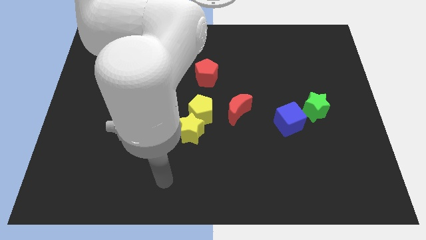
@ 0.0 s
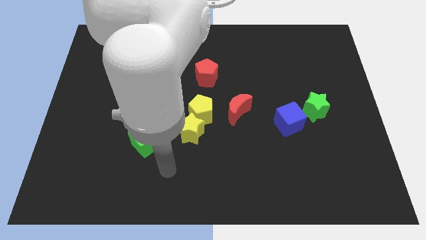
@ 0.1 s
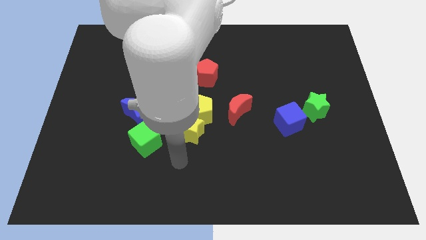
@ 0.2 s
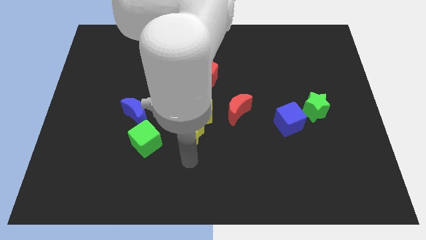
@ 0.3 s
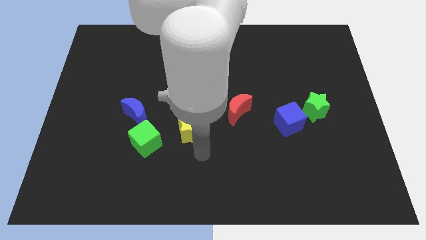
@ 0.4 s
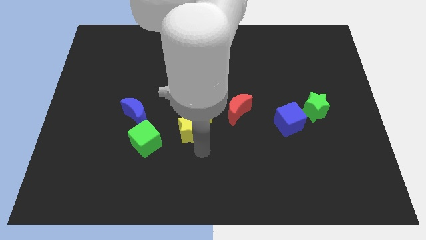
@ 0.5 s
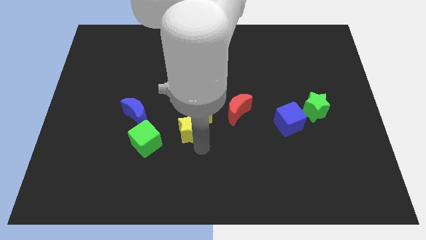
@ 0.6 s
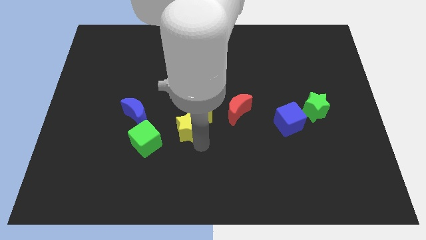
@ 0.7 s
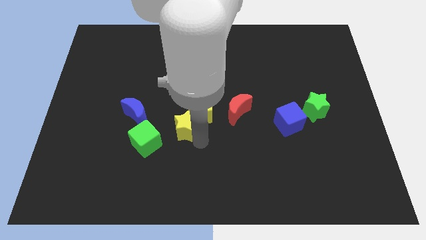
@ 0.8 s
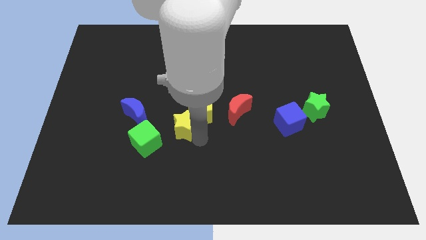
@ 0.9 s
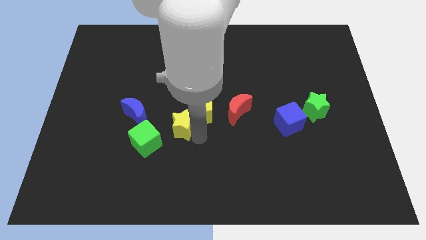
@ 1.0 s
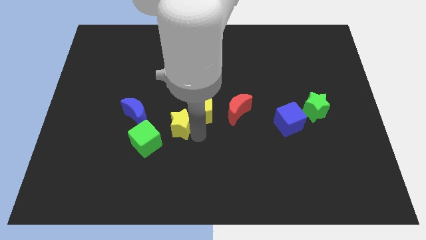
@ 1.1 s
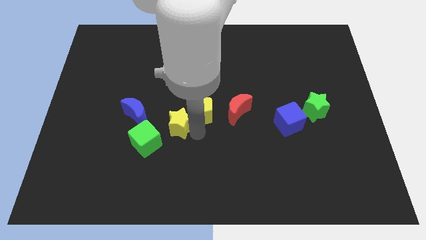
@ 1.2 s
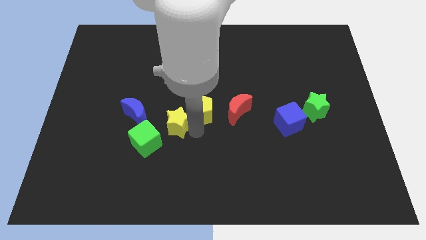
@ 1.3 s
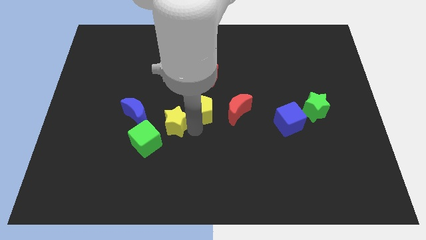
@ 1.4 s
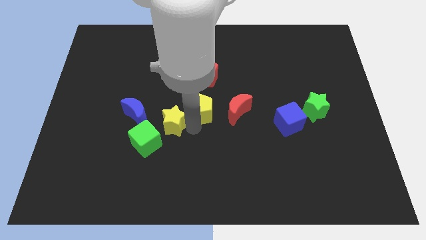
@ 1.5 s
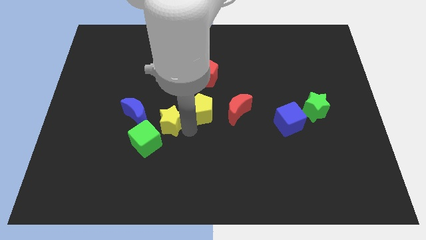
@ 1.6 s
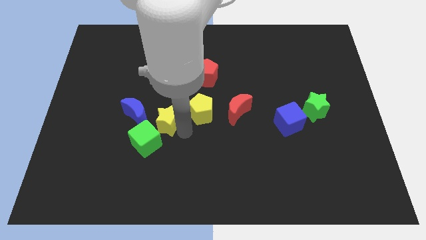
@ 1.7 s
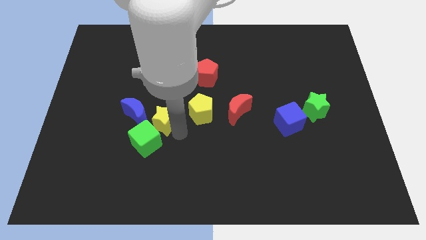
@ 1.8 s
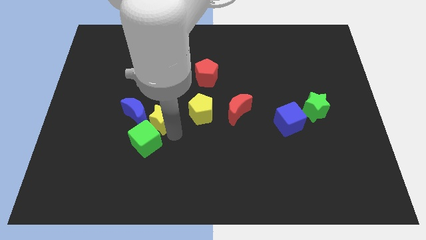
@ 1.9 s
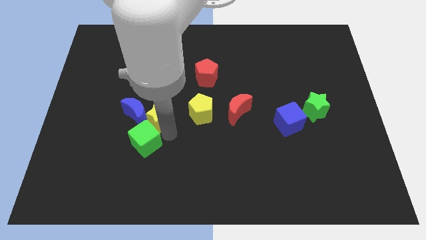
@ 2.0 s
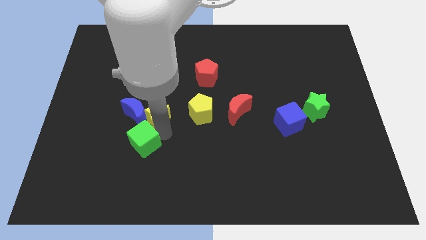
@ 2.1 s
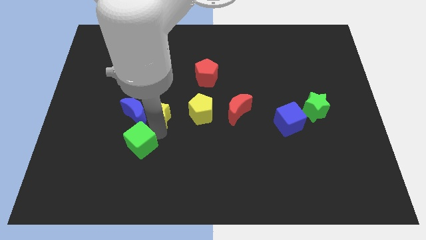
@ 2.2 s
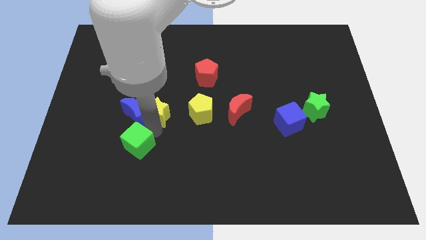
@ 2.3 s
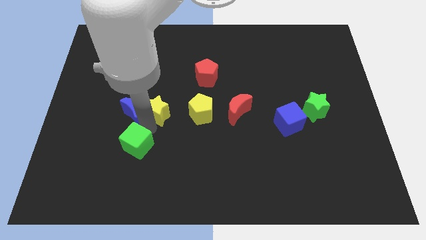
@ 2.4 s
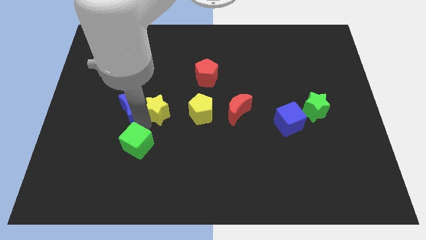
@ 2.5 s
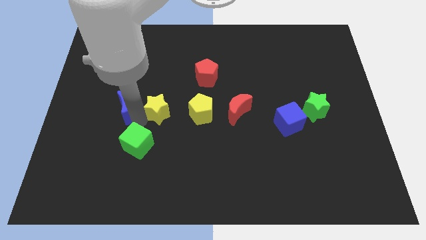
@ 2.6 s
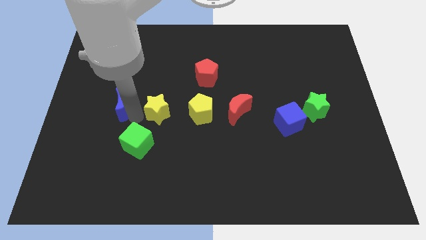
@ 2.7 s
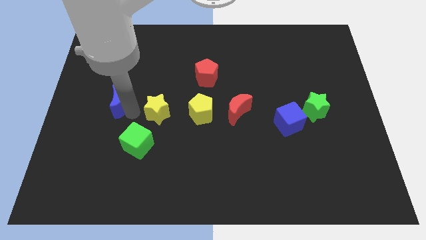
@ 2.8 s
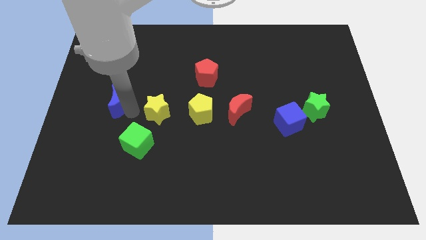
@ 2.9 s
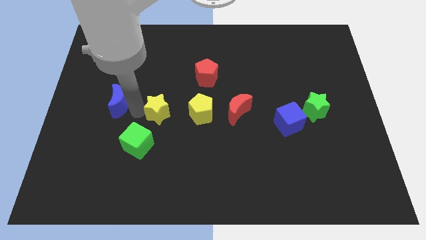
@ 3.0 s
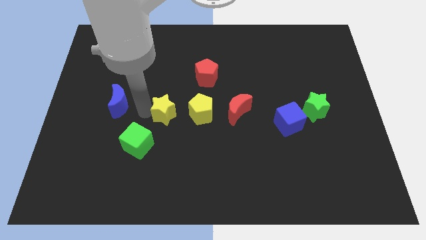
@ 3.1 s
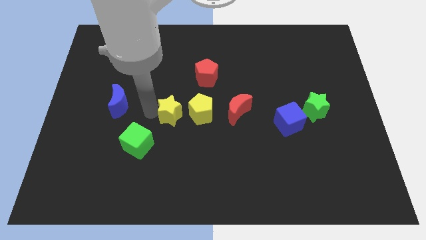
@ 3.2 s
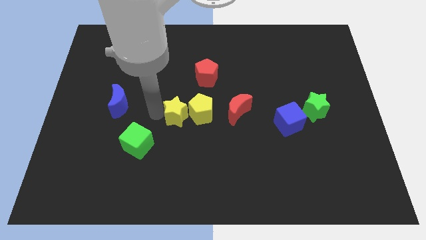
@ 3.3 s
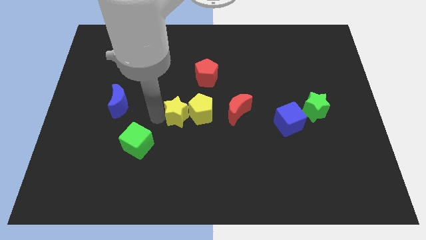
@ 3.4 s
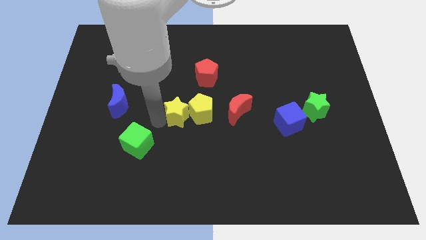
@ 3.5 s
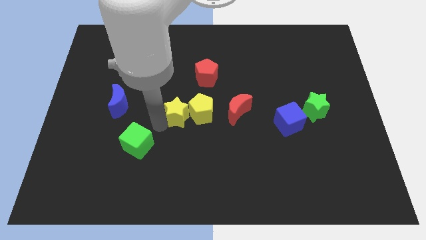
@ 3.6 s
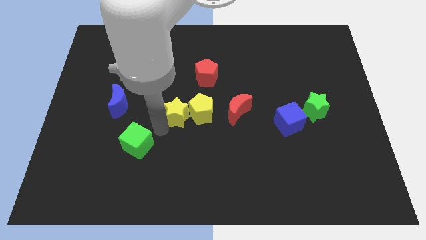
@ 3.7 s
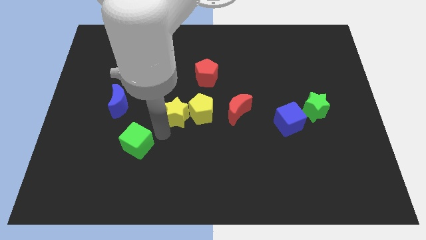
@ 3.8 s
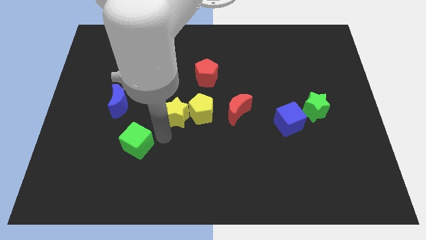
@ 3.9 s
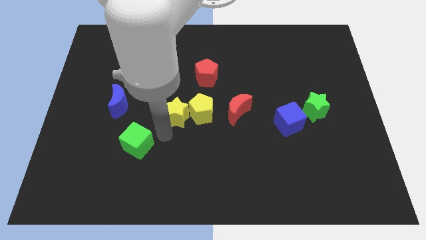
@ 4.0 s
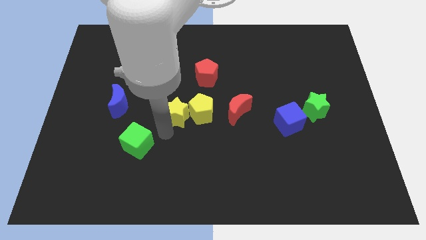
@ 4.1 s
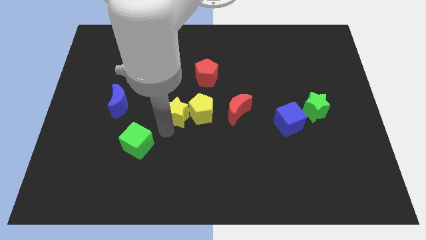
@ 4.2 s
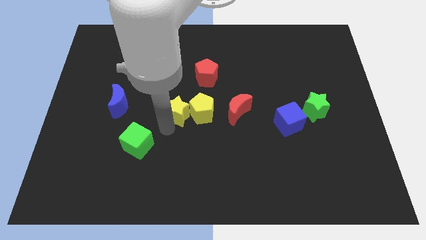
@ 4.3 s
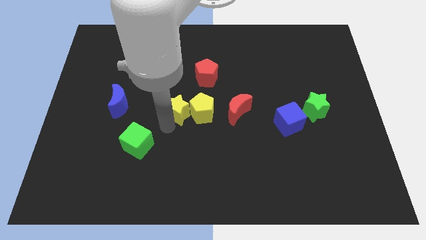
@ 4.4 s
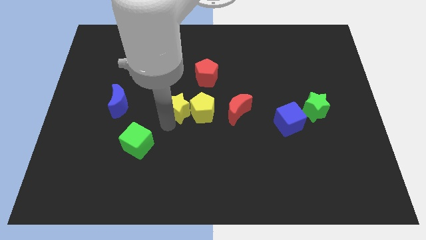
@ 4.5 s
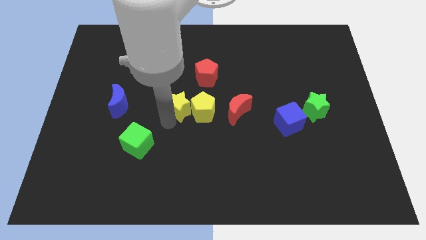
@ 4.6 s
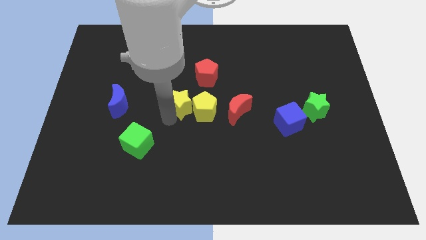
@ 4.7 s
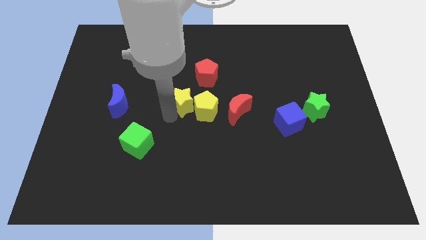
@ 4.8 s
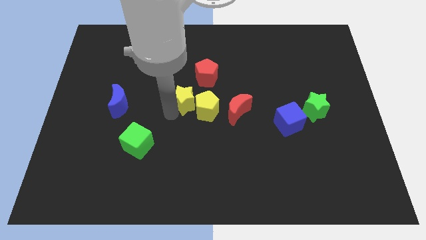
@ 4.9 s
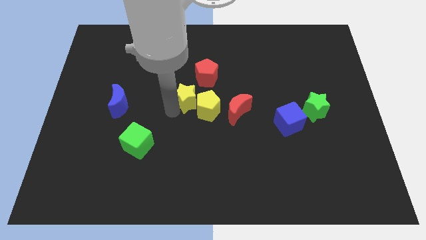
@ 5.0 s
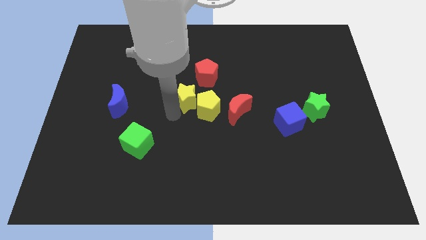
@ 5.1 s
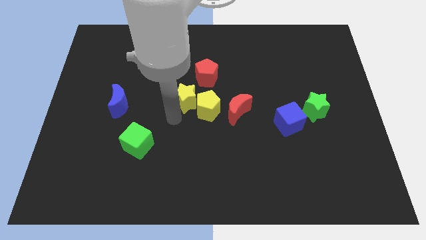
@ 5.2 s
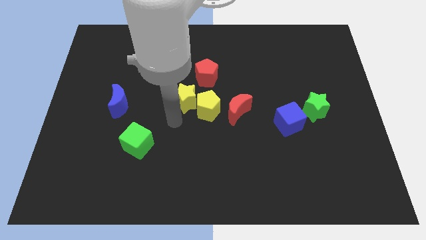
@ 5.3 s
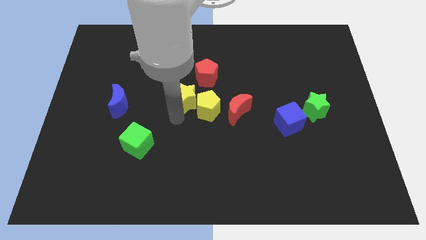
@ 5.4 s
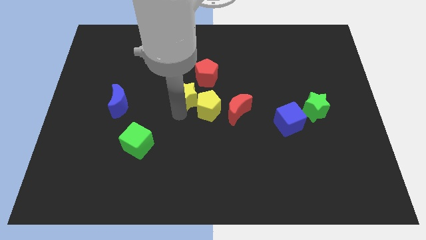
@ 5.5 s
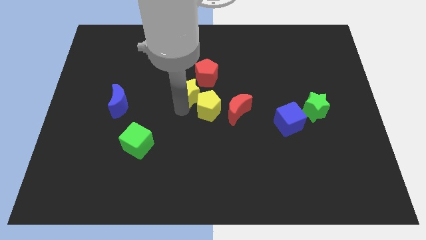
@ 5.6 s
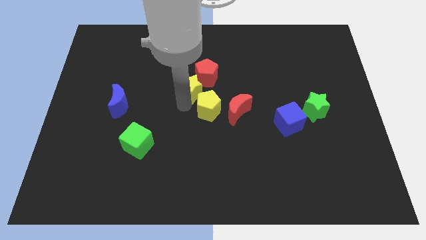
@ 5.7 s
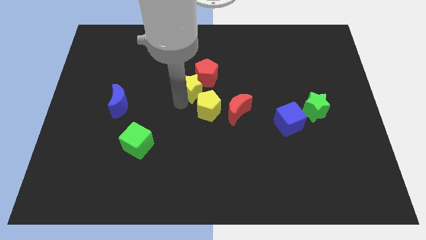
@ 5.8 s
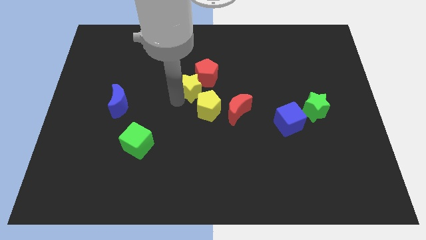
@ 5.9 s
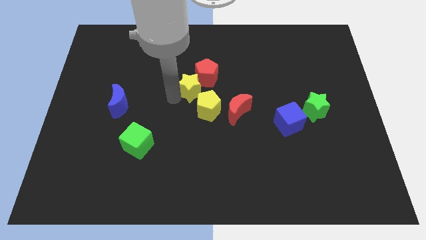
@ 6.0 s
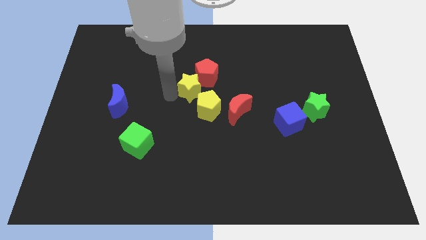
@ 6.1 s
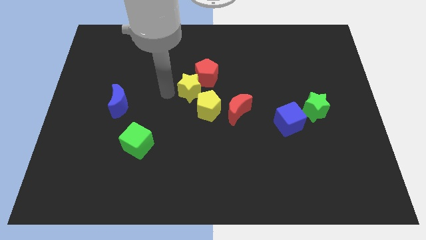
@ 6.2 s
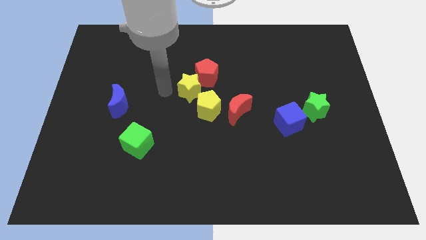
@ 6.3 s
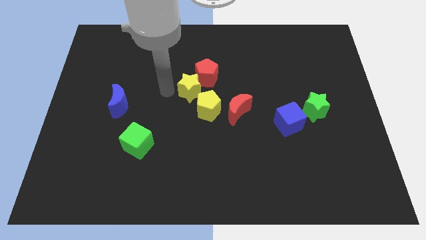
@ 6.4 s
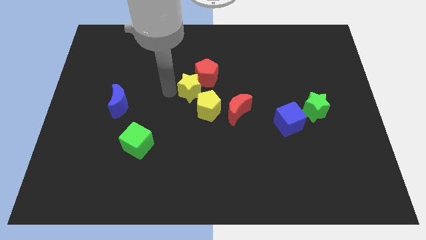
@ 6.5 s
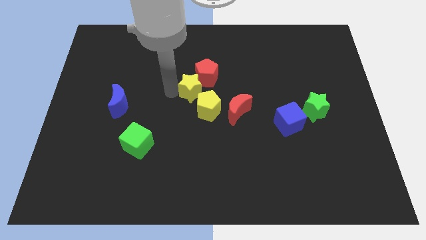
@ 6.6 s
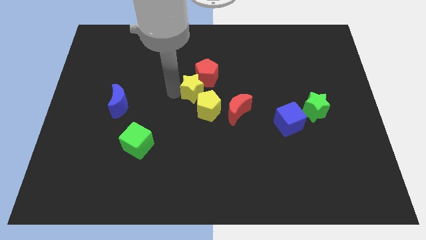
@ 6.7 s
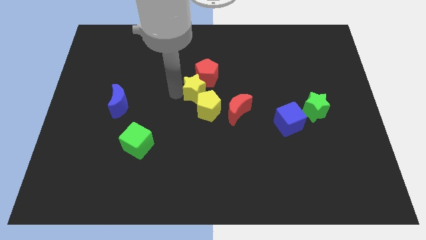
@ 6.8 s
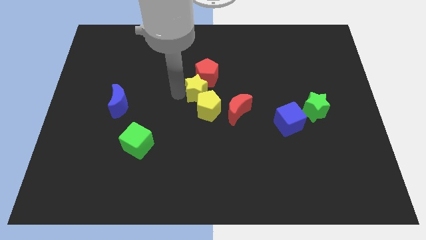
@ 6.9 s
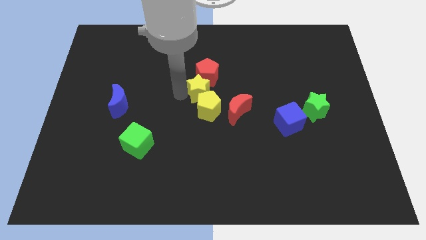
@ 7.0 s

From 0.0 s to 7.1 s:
slightly slide the yellow star up and right diagonally

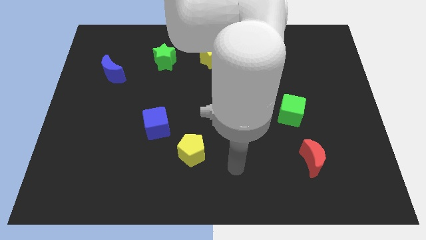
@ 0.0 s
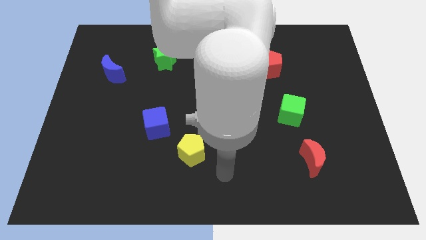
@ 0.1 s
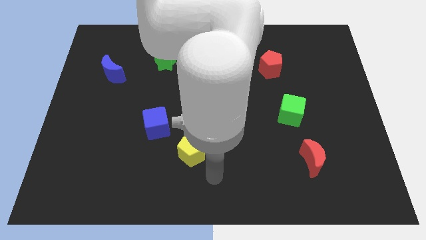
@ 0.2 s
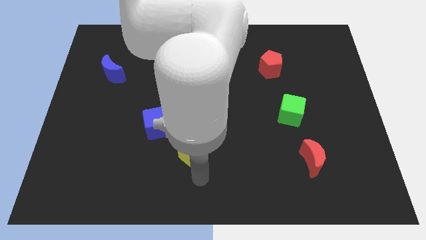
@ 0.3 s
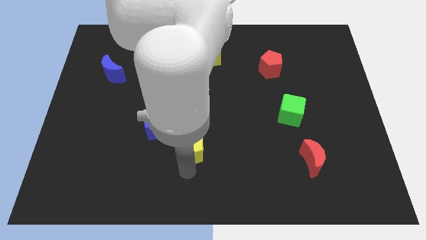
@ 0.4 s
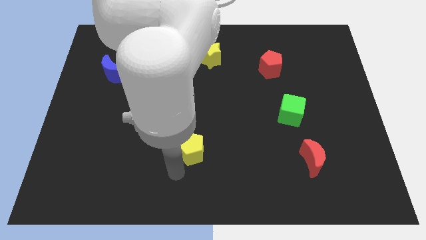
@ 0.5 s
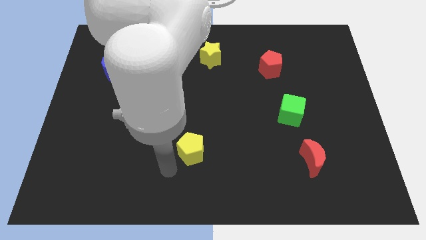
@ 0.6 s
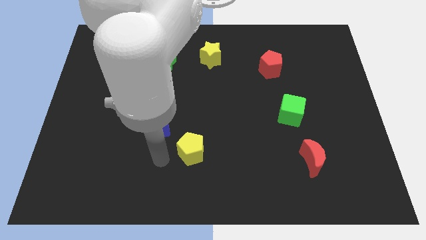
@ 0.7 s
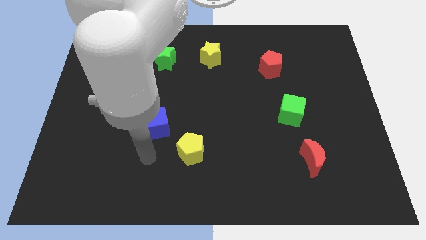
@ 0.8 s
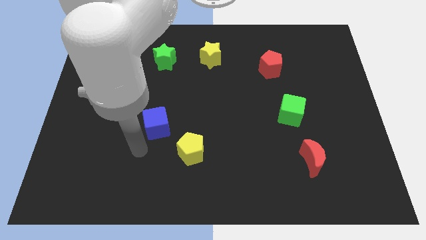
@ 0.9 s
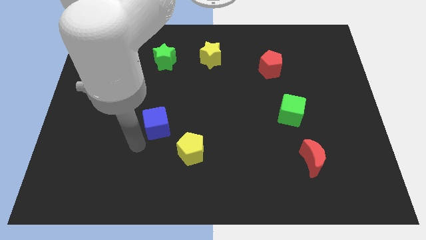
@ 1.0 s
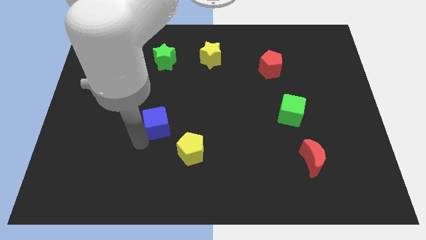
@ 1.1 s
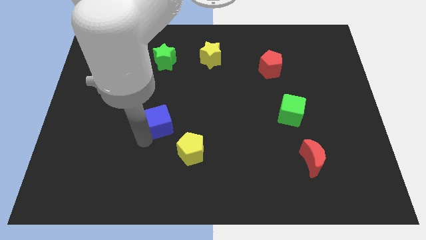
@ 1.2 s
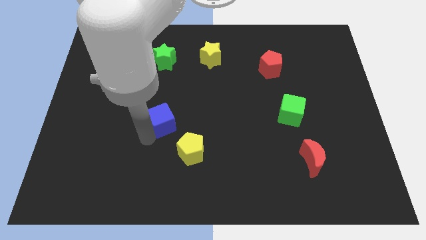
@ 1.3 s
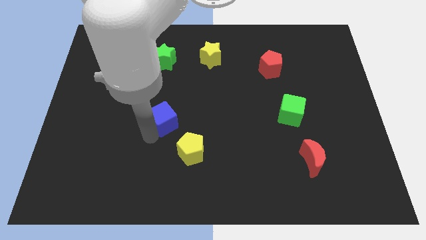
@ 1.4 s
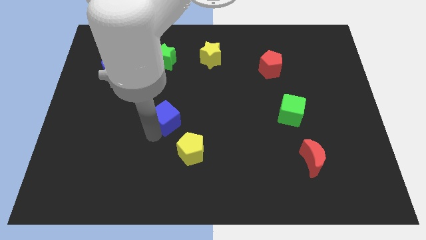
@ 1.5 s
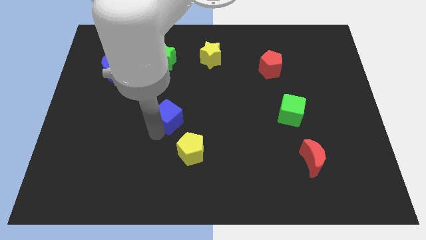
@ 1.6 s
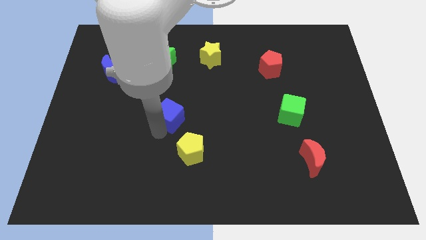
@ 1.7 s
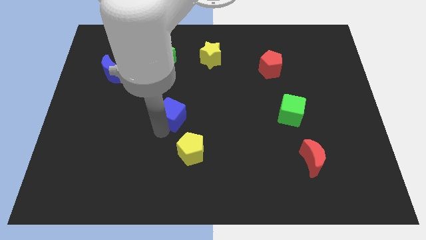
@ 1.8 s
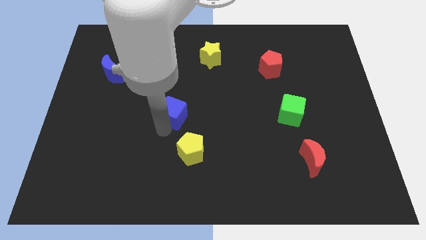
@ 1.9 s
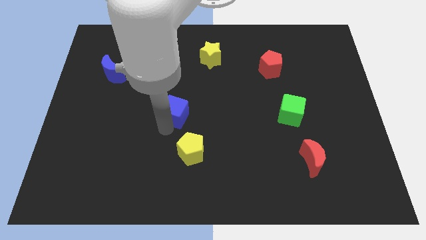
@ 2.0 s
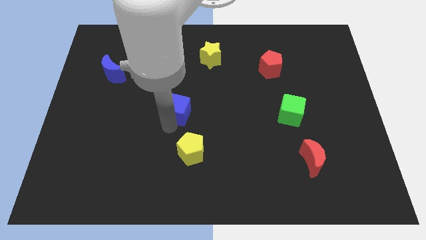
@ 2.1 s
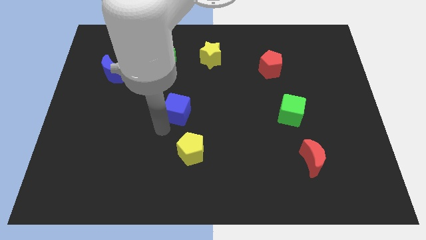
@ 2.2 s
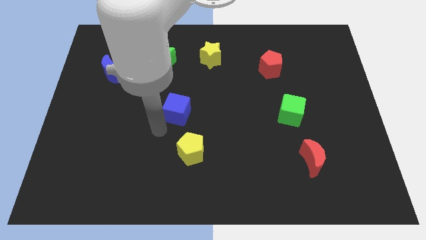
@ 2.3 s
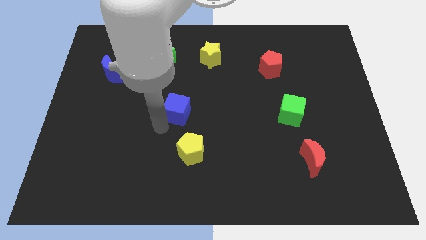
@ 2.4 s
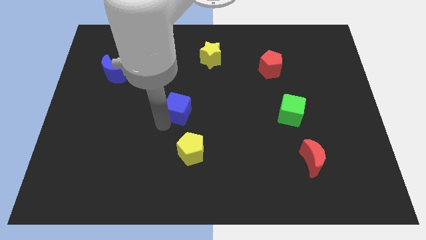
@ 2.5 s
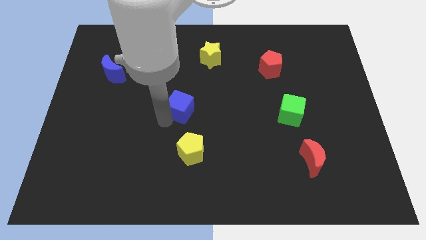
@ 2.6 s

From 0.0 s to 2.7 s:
move the blue cube a little bit up and to the right diagonally
